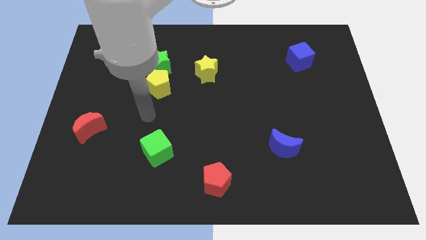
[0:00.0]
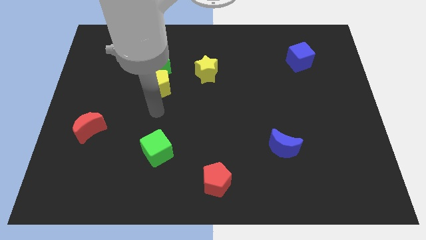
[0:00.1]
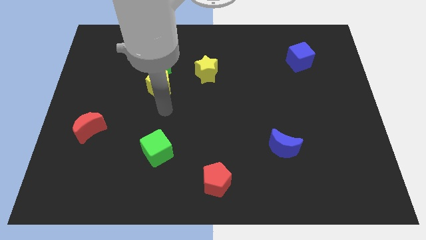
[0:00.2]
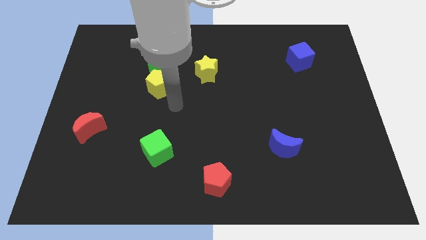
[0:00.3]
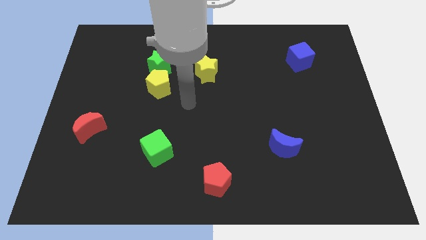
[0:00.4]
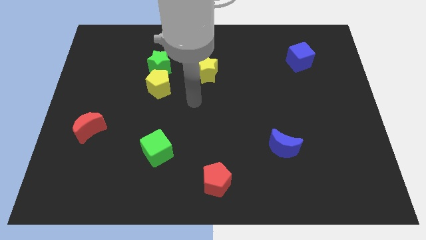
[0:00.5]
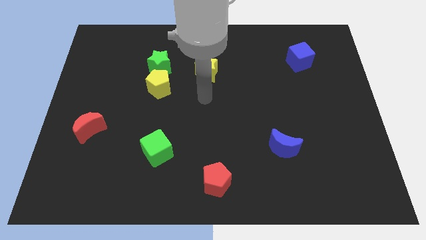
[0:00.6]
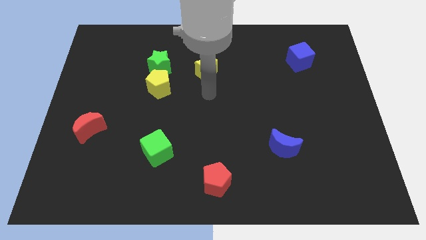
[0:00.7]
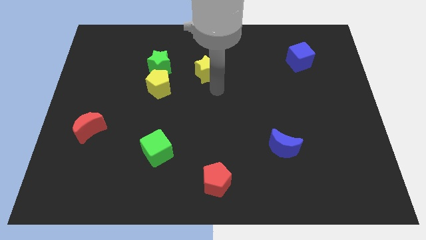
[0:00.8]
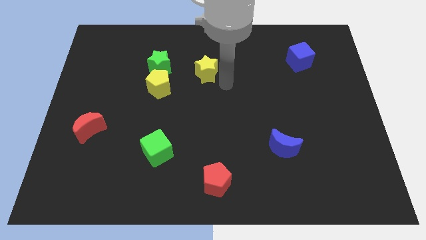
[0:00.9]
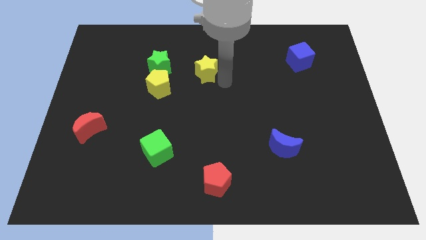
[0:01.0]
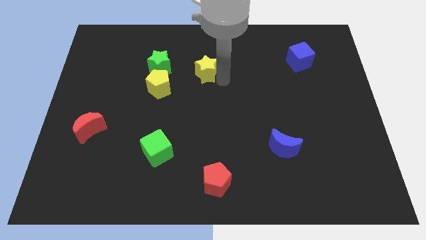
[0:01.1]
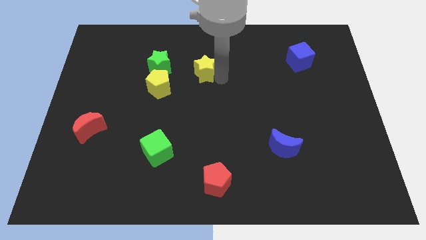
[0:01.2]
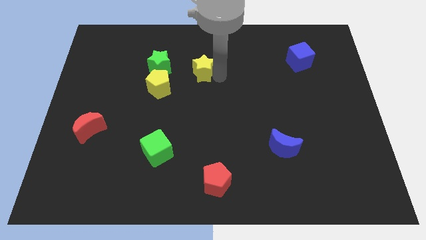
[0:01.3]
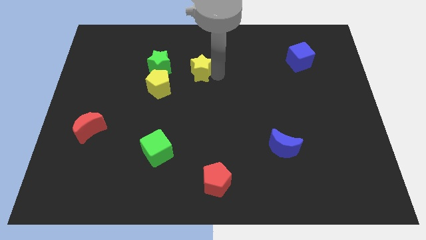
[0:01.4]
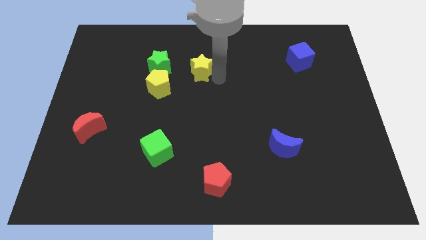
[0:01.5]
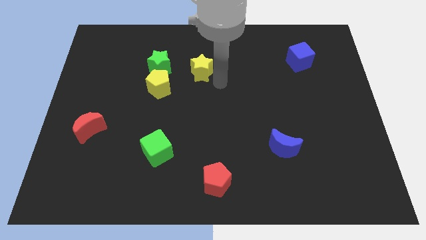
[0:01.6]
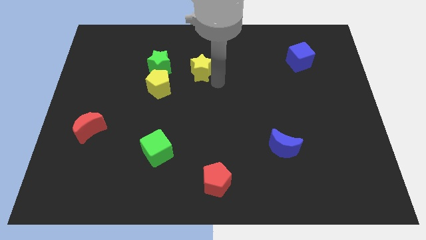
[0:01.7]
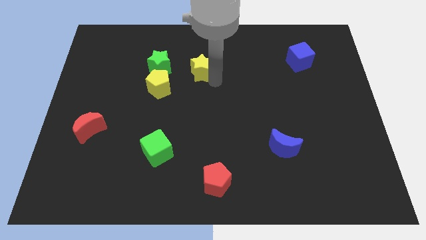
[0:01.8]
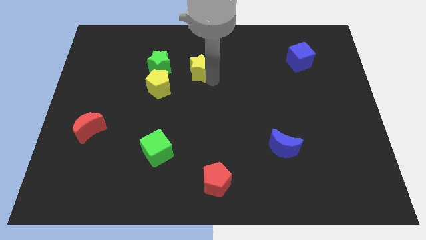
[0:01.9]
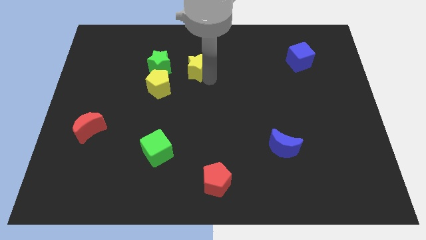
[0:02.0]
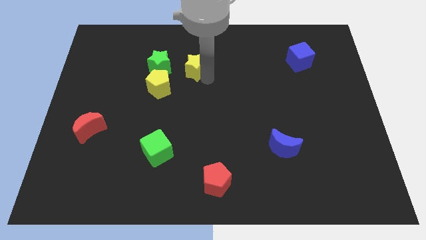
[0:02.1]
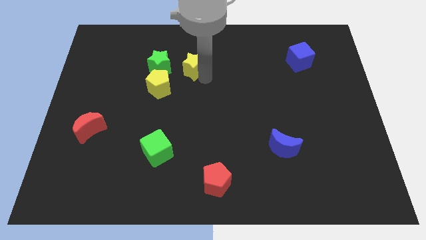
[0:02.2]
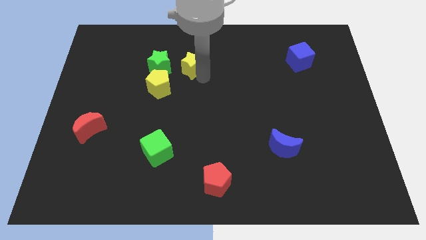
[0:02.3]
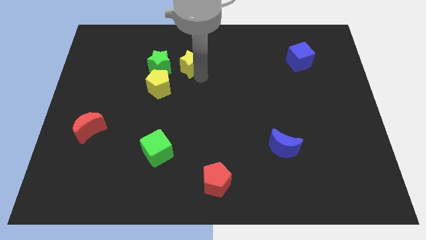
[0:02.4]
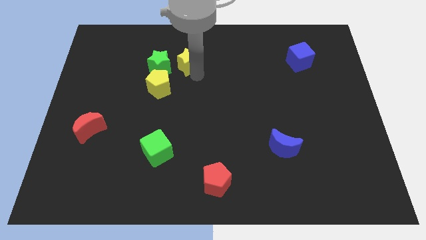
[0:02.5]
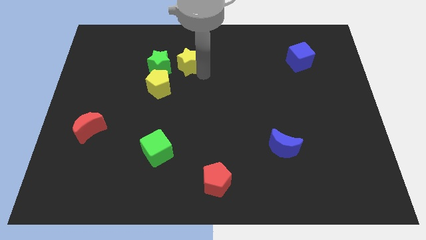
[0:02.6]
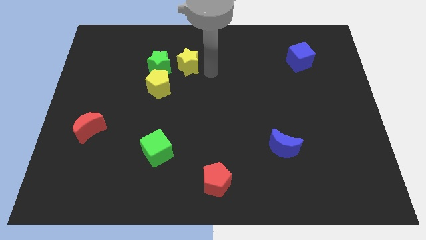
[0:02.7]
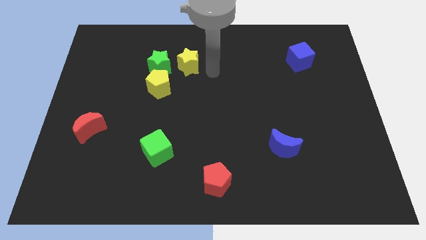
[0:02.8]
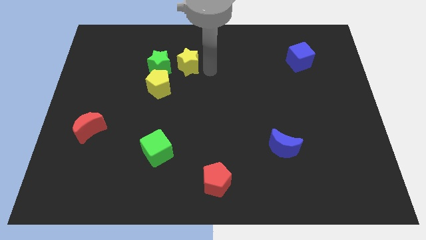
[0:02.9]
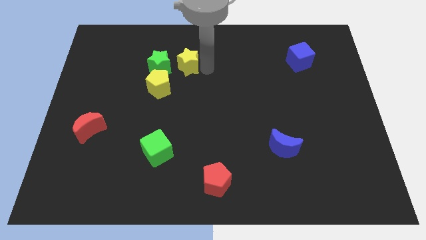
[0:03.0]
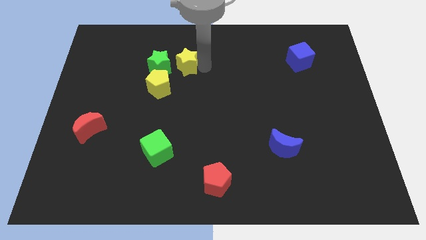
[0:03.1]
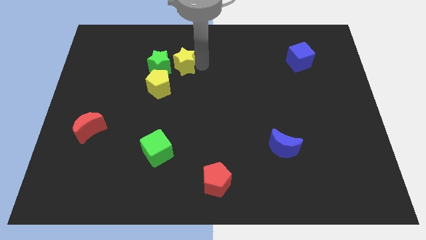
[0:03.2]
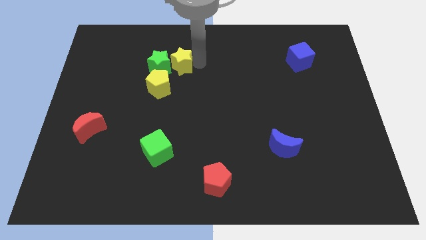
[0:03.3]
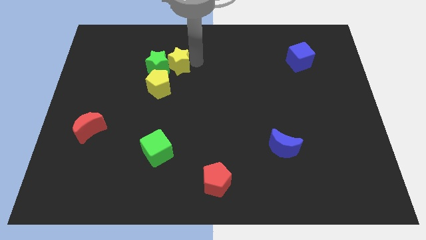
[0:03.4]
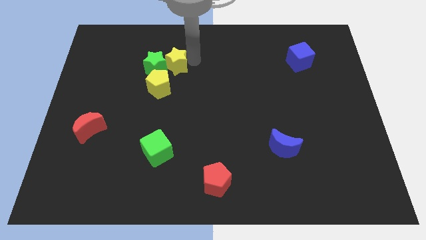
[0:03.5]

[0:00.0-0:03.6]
slightly slide the yellow star left

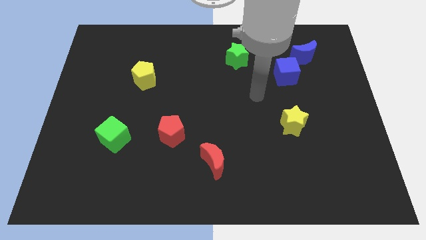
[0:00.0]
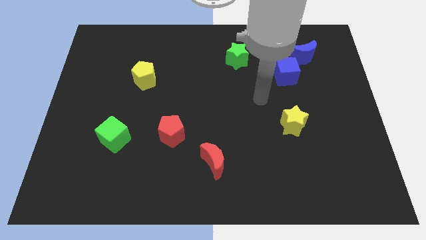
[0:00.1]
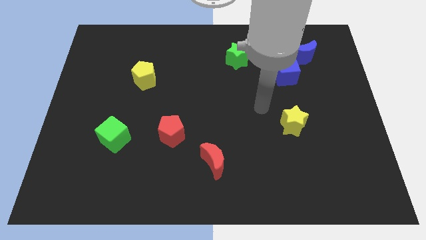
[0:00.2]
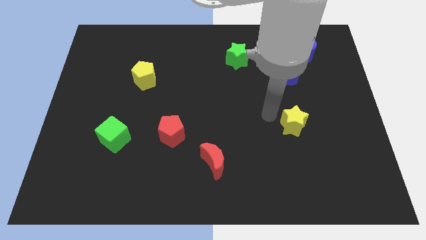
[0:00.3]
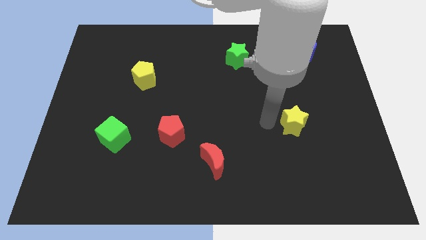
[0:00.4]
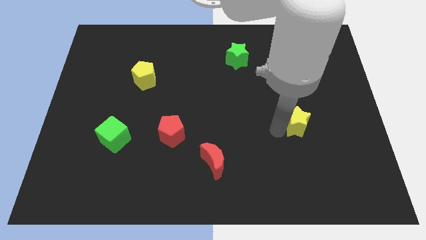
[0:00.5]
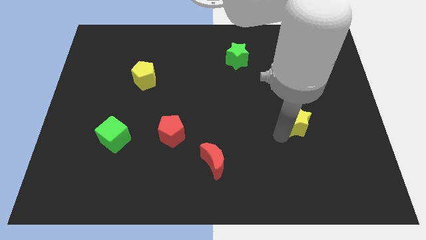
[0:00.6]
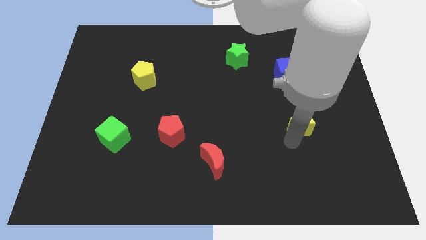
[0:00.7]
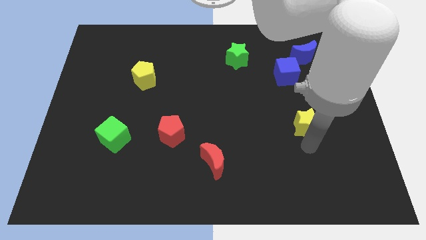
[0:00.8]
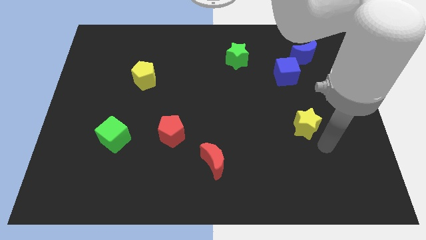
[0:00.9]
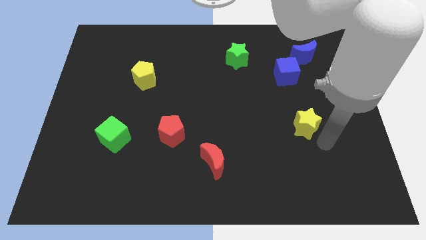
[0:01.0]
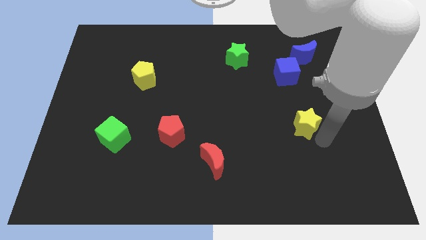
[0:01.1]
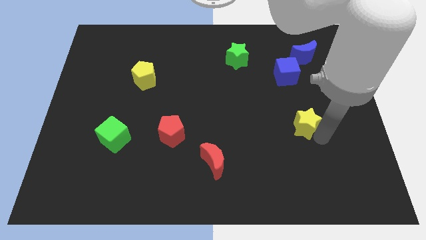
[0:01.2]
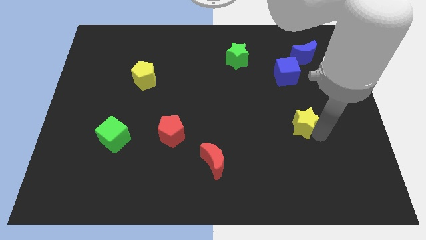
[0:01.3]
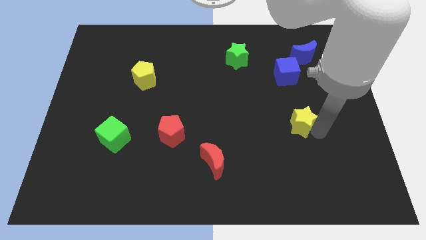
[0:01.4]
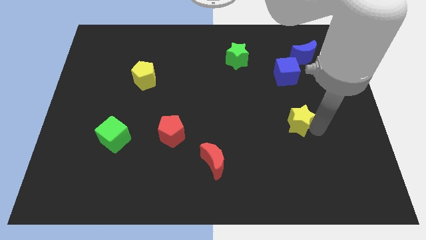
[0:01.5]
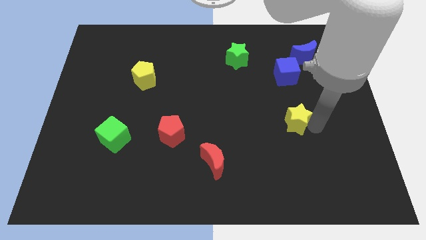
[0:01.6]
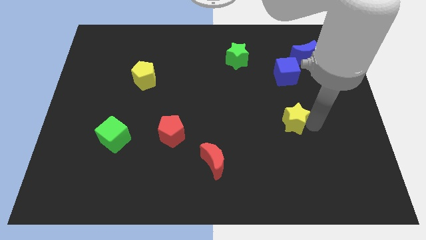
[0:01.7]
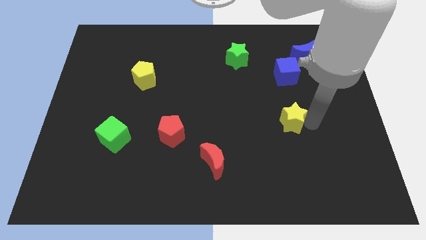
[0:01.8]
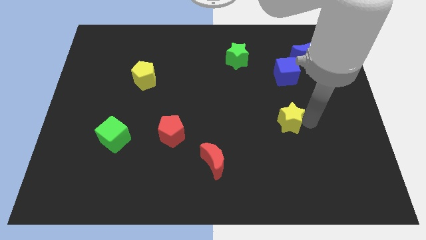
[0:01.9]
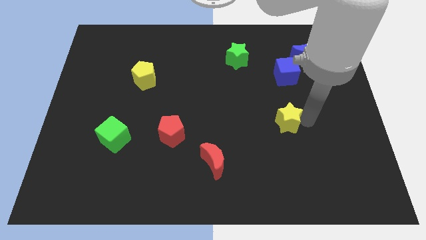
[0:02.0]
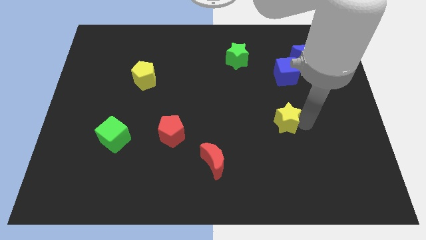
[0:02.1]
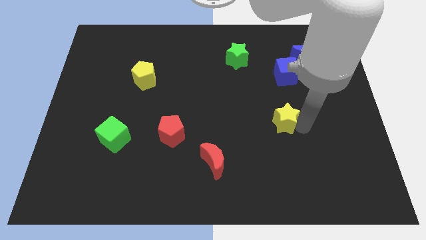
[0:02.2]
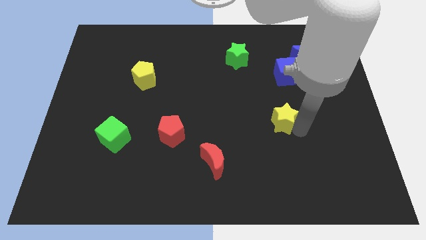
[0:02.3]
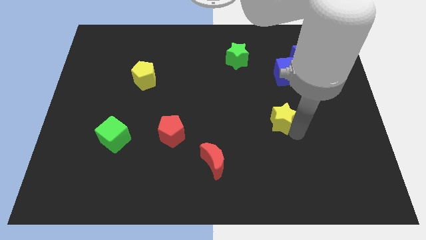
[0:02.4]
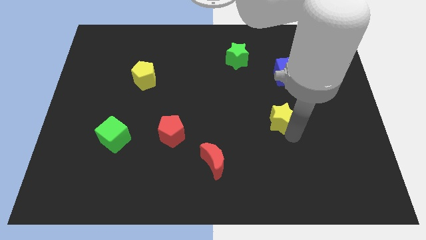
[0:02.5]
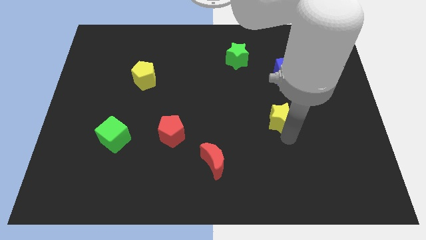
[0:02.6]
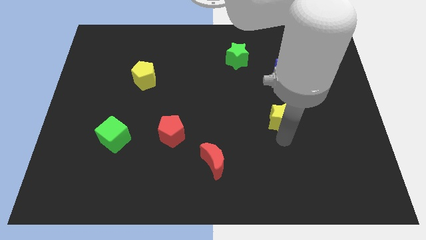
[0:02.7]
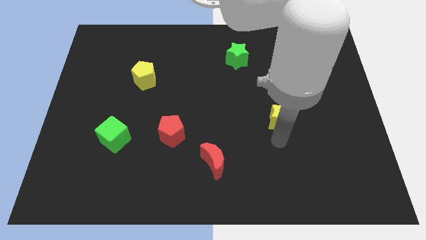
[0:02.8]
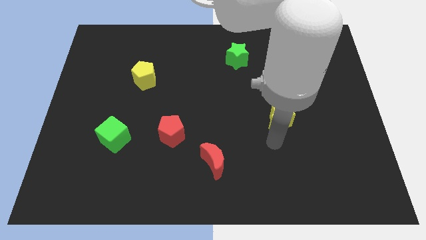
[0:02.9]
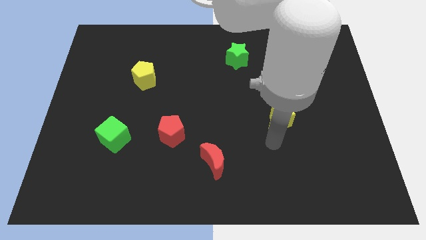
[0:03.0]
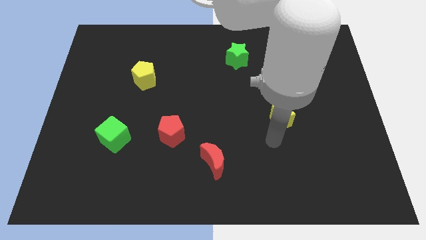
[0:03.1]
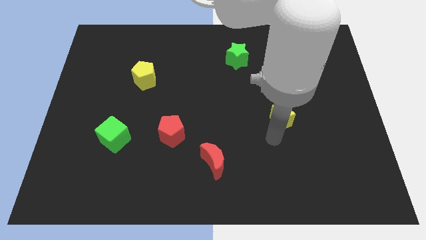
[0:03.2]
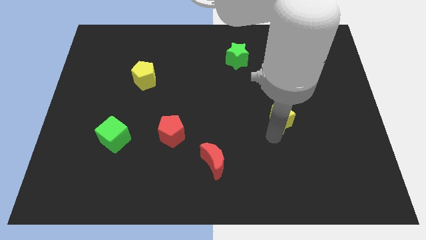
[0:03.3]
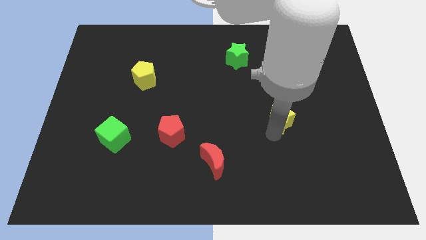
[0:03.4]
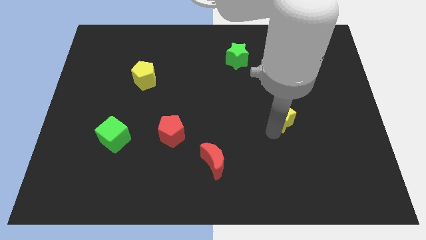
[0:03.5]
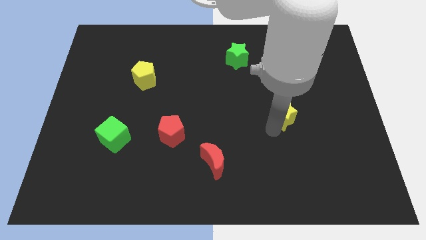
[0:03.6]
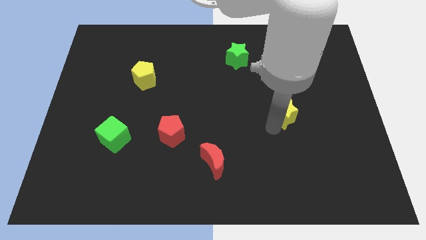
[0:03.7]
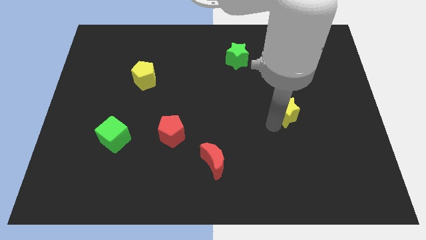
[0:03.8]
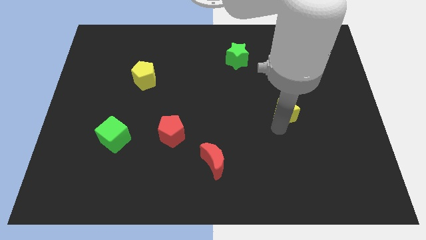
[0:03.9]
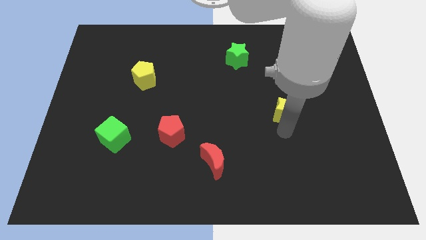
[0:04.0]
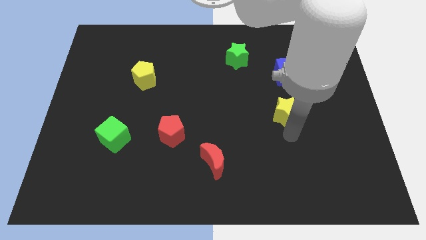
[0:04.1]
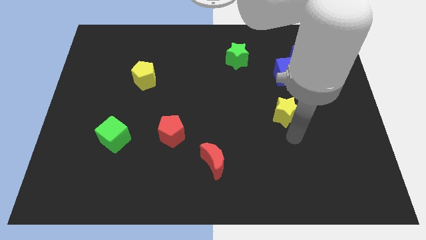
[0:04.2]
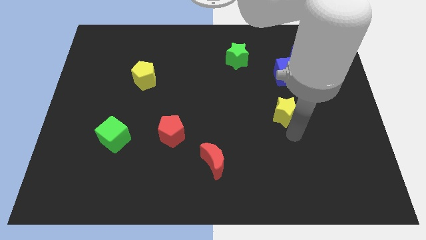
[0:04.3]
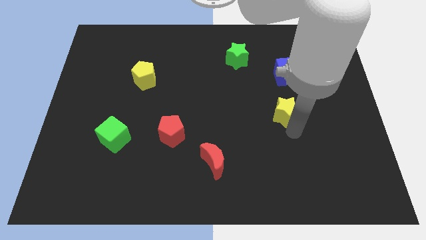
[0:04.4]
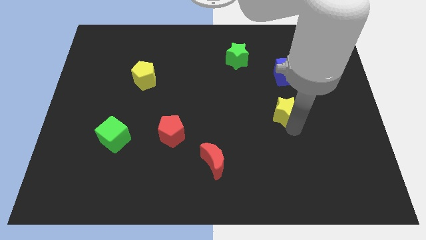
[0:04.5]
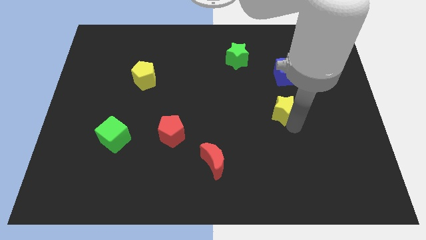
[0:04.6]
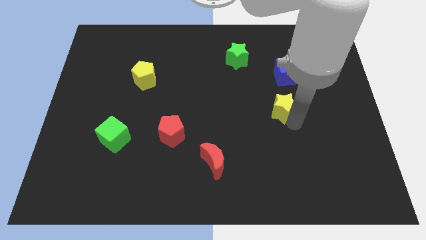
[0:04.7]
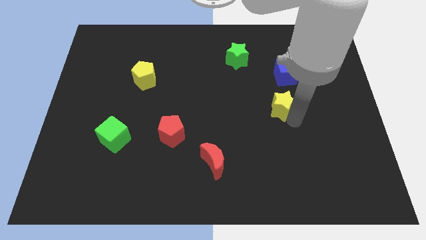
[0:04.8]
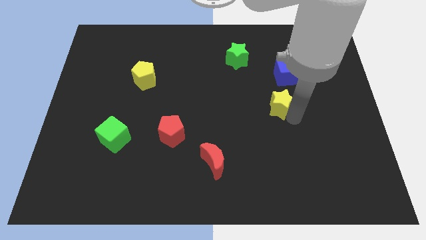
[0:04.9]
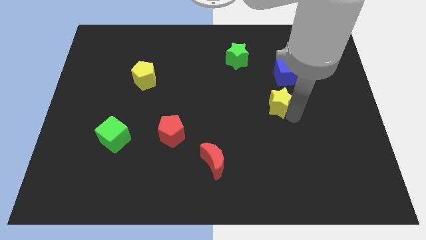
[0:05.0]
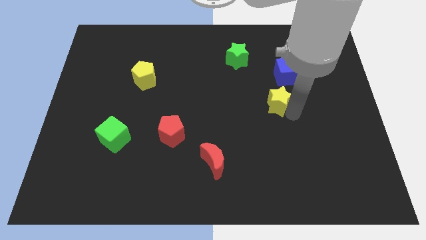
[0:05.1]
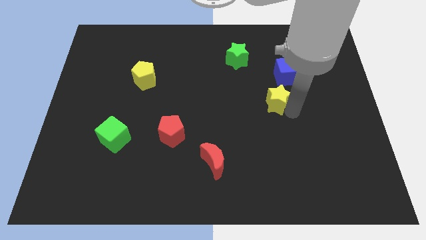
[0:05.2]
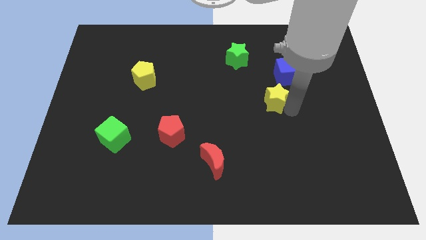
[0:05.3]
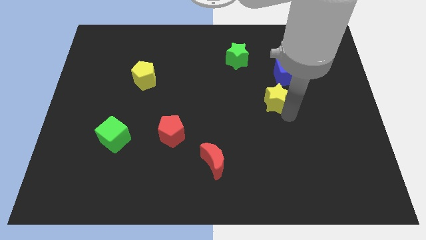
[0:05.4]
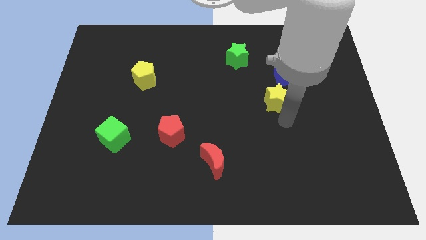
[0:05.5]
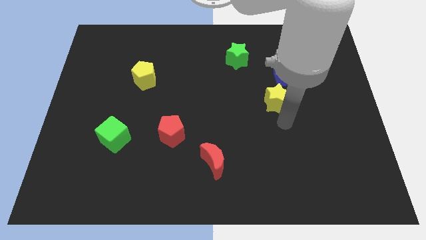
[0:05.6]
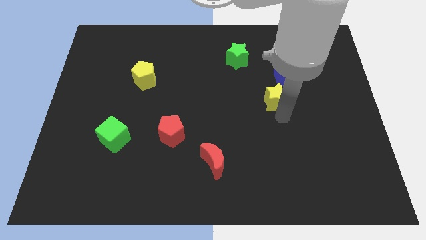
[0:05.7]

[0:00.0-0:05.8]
slide the yellow star up slightly
